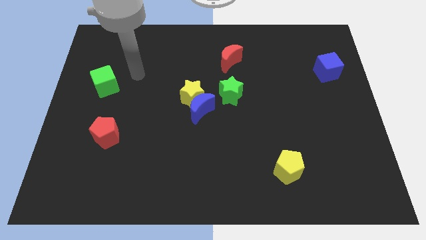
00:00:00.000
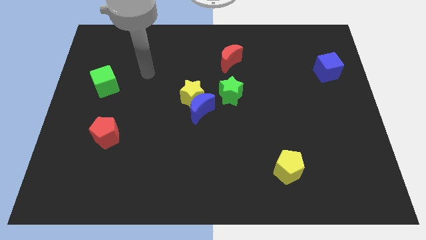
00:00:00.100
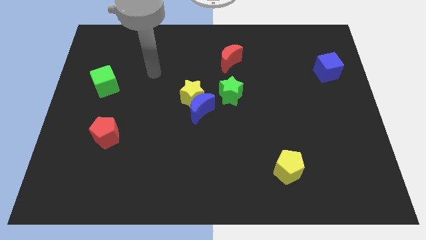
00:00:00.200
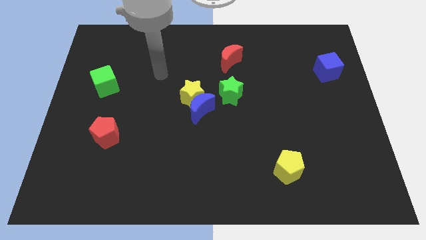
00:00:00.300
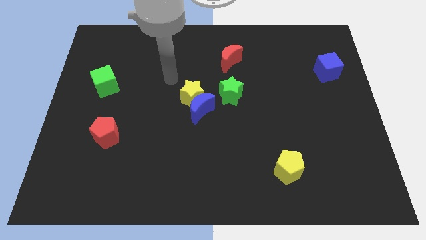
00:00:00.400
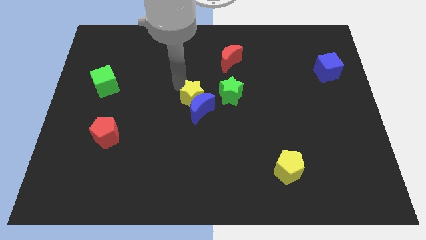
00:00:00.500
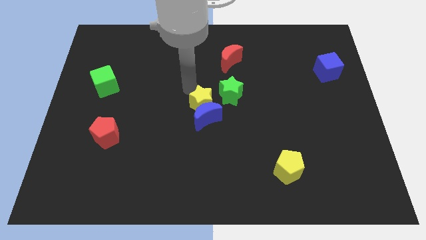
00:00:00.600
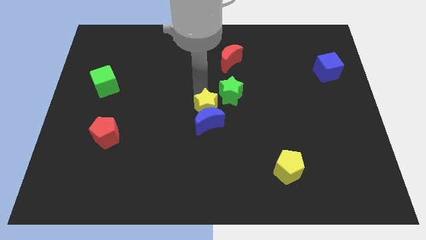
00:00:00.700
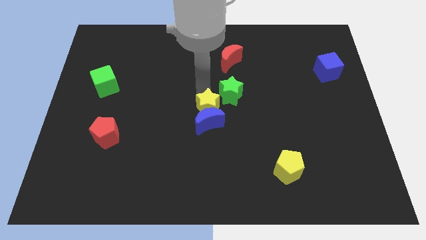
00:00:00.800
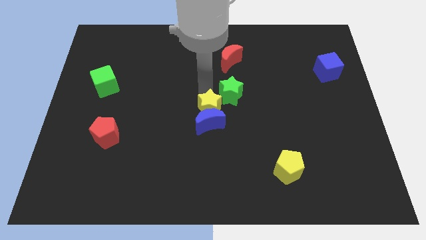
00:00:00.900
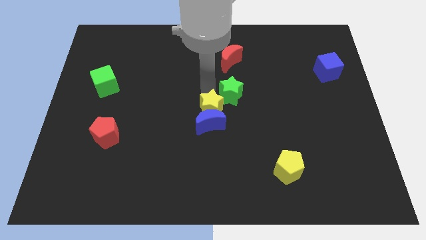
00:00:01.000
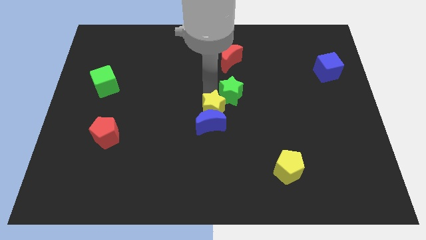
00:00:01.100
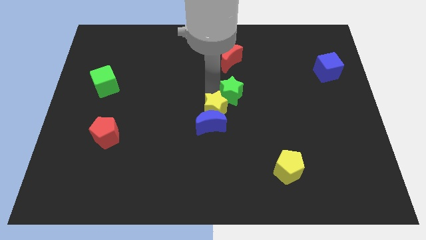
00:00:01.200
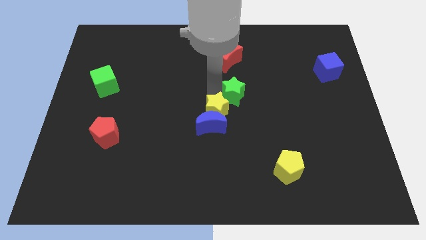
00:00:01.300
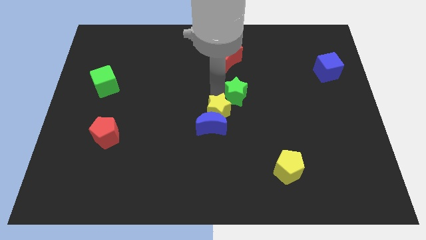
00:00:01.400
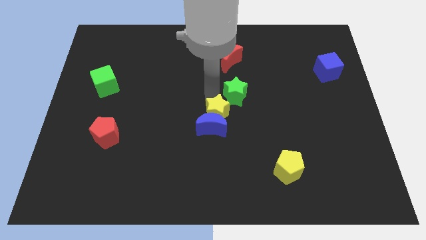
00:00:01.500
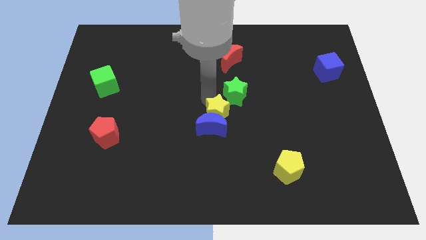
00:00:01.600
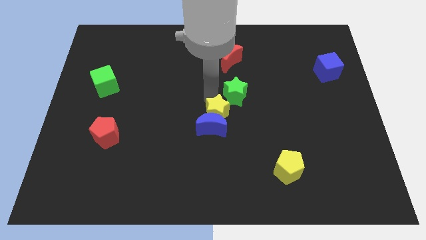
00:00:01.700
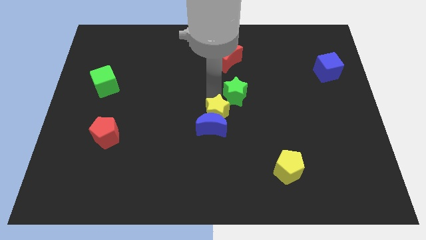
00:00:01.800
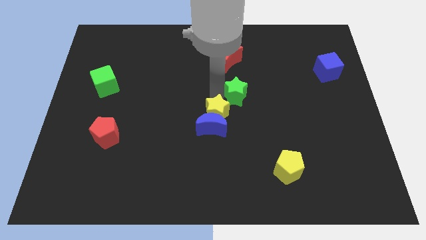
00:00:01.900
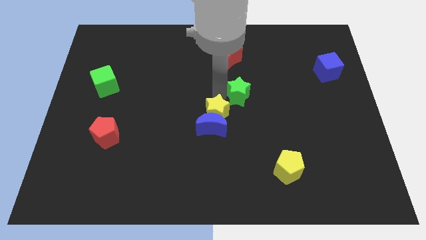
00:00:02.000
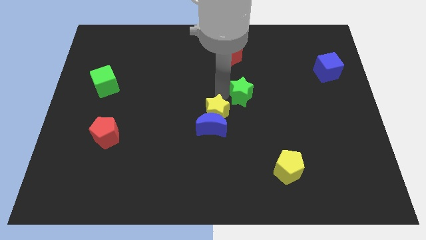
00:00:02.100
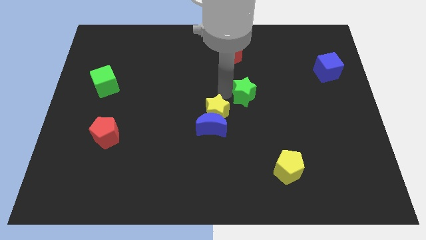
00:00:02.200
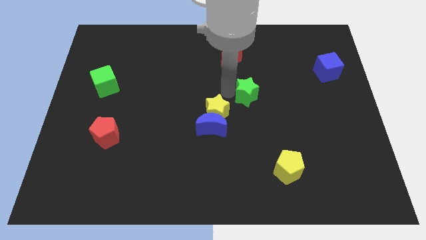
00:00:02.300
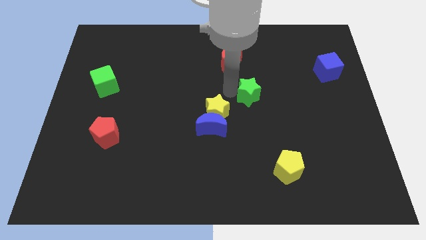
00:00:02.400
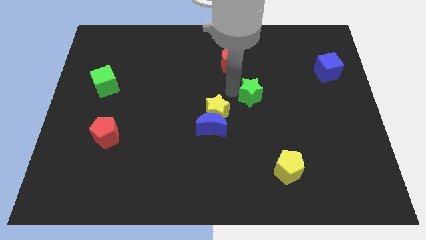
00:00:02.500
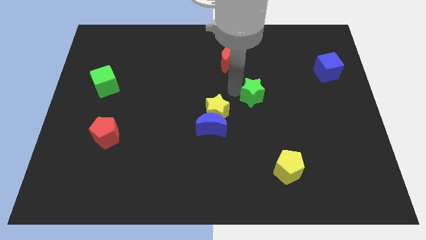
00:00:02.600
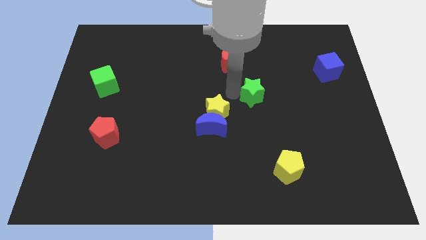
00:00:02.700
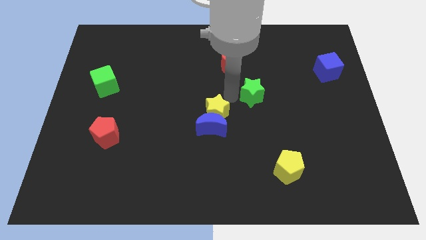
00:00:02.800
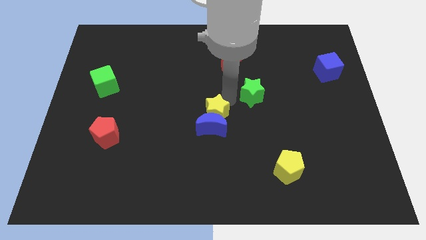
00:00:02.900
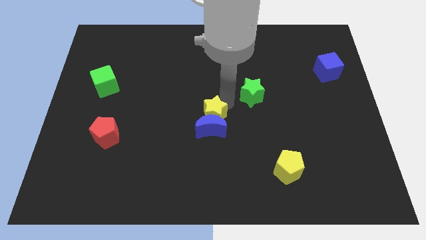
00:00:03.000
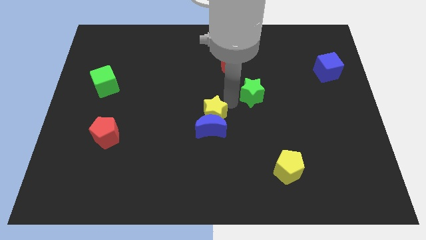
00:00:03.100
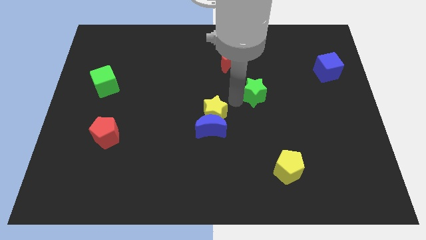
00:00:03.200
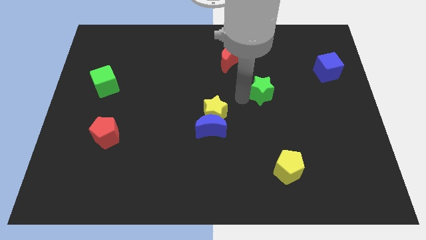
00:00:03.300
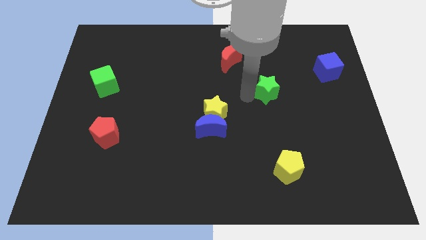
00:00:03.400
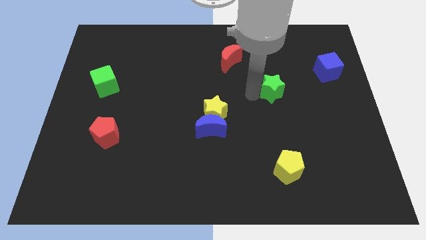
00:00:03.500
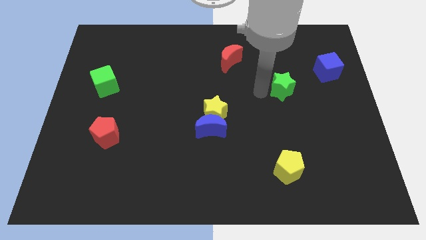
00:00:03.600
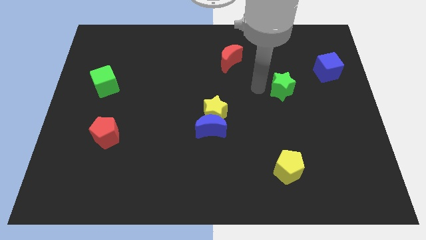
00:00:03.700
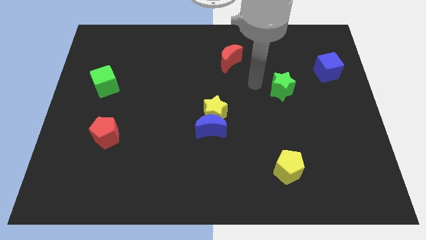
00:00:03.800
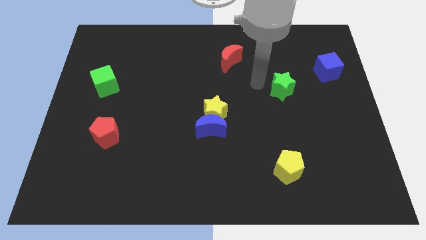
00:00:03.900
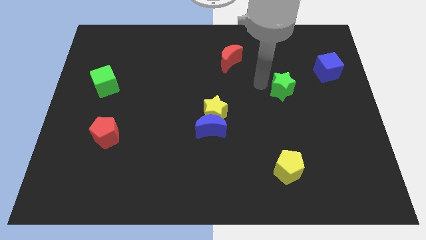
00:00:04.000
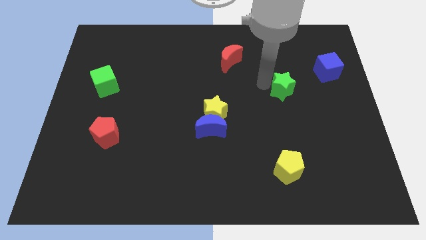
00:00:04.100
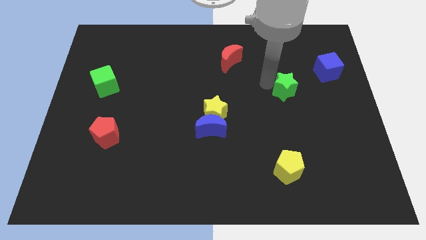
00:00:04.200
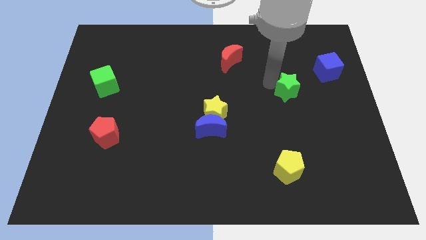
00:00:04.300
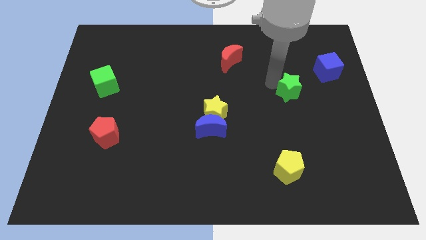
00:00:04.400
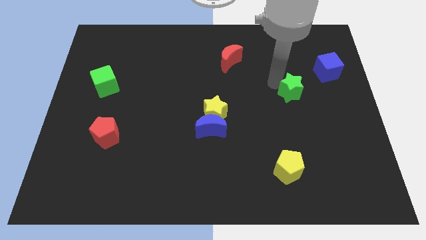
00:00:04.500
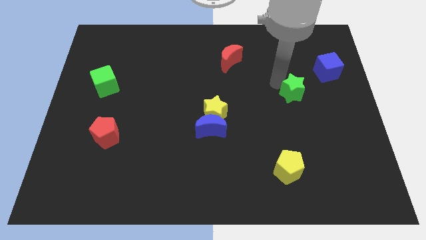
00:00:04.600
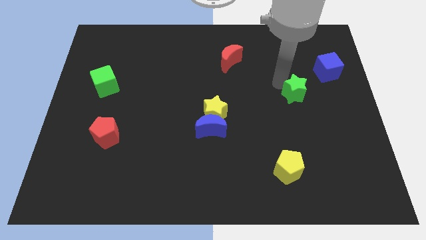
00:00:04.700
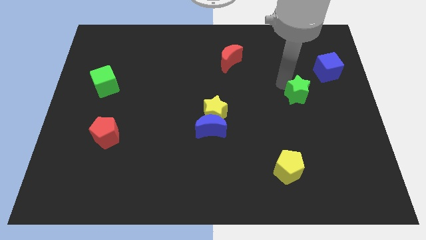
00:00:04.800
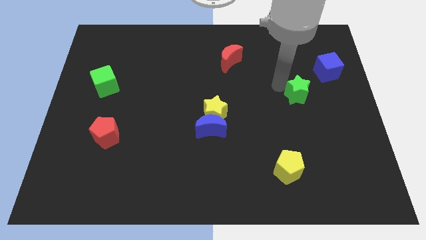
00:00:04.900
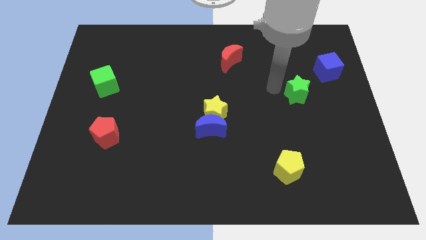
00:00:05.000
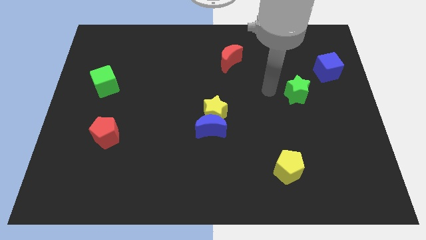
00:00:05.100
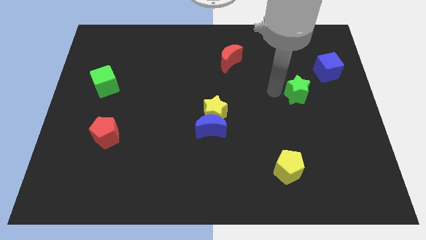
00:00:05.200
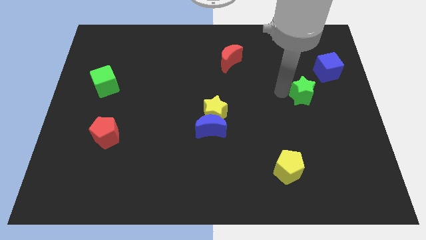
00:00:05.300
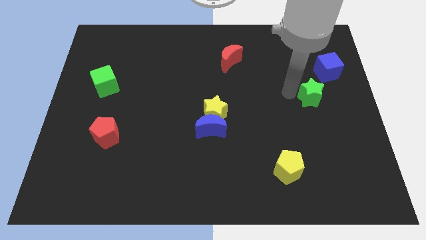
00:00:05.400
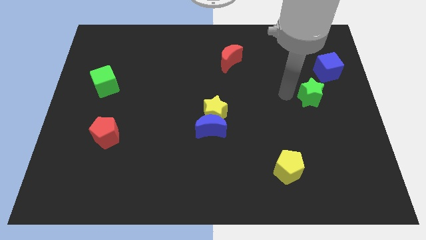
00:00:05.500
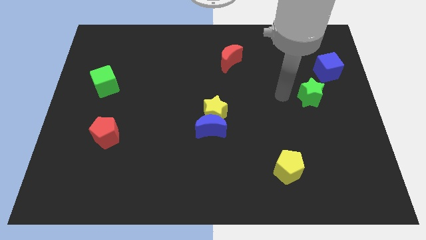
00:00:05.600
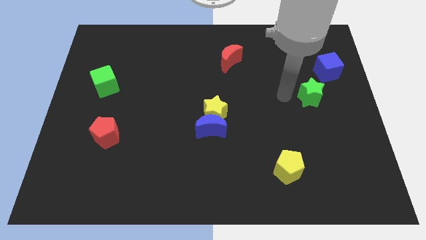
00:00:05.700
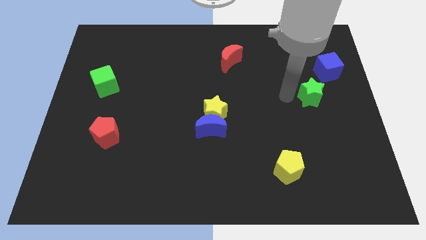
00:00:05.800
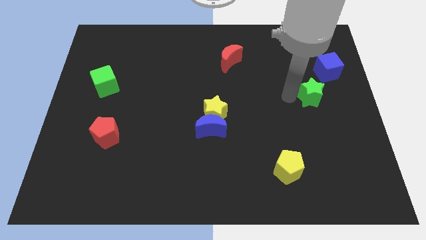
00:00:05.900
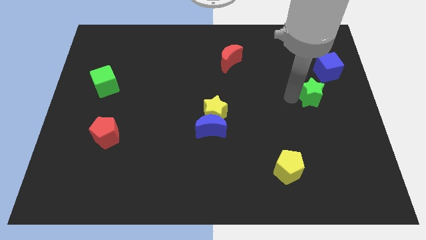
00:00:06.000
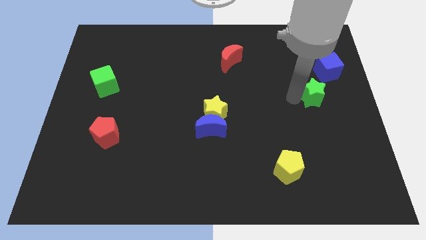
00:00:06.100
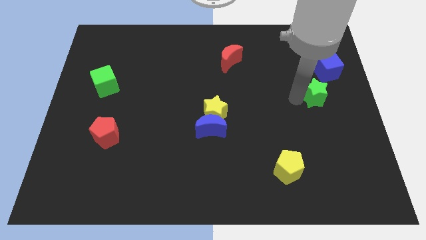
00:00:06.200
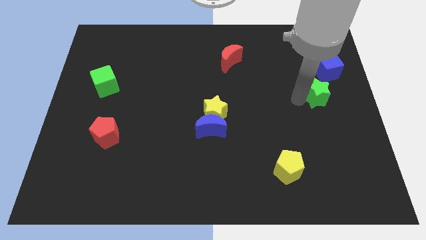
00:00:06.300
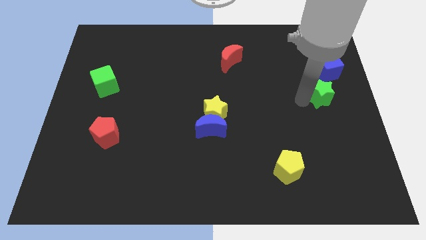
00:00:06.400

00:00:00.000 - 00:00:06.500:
push the green star to the right side of the board
